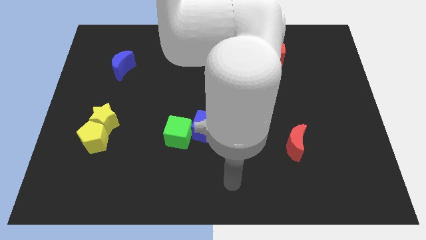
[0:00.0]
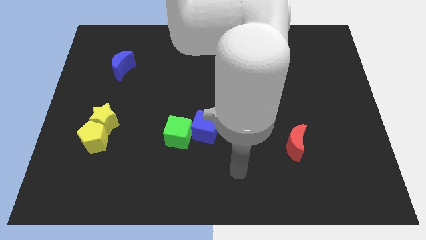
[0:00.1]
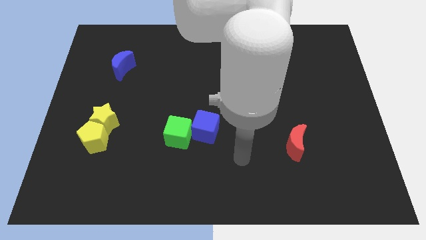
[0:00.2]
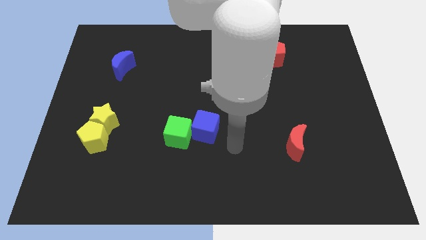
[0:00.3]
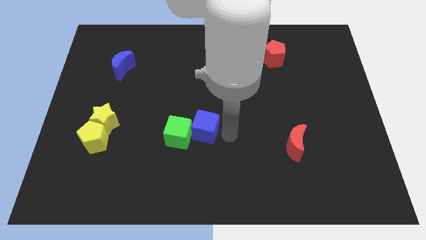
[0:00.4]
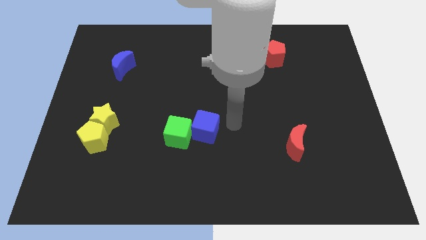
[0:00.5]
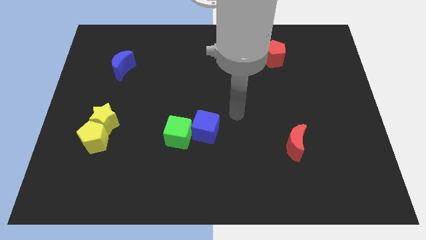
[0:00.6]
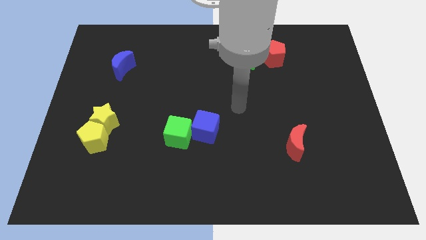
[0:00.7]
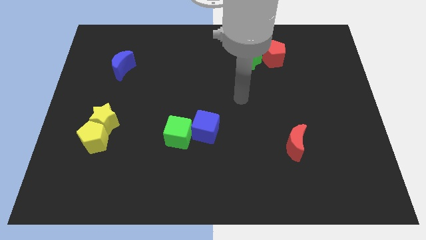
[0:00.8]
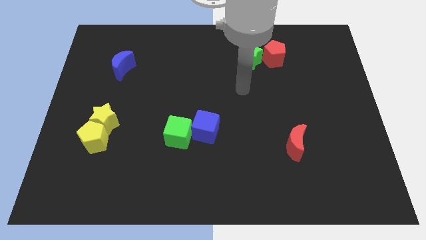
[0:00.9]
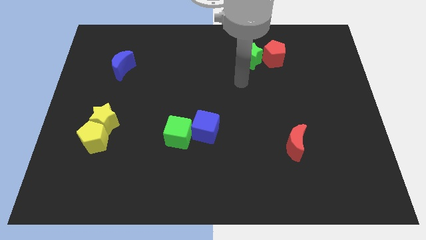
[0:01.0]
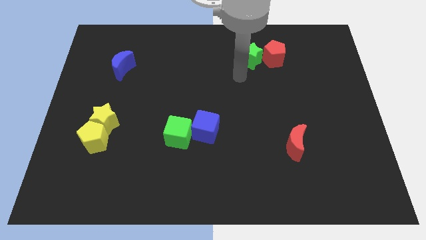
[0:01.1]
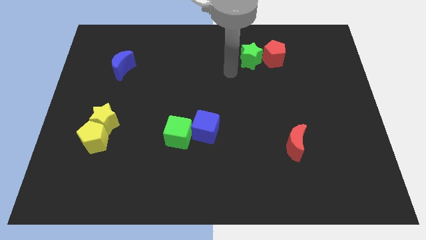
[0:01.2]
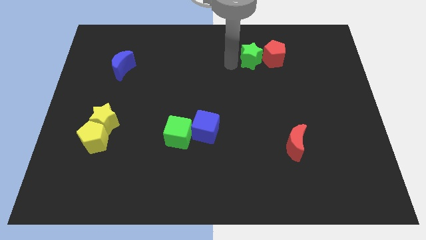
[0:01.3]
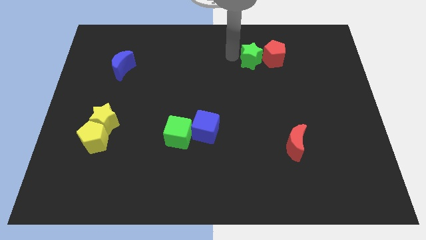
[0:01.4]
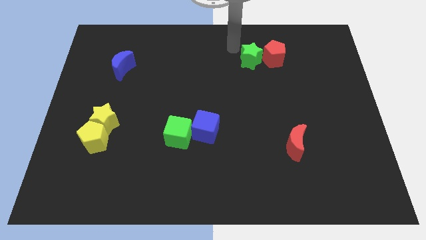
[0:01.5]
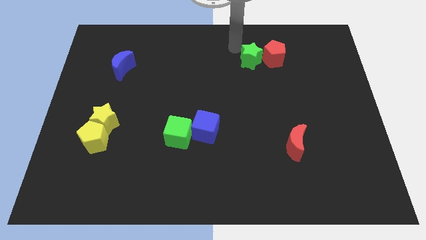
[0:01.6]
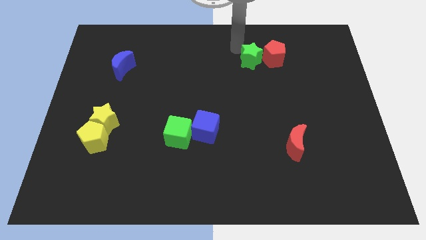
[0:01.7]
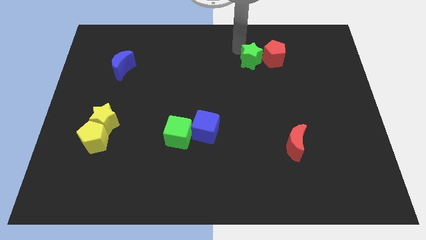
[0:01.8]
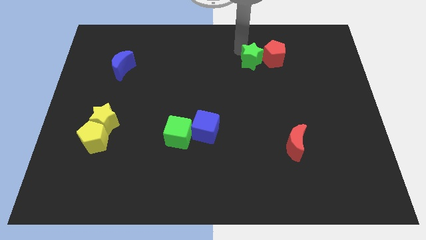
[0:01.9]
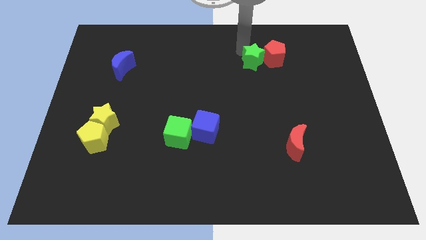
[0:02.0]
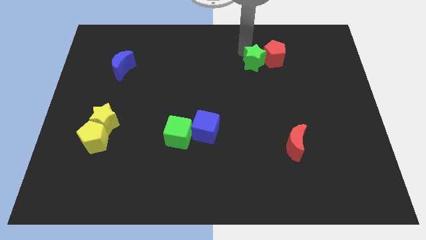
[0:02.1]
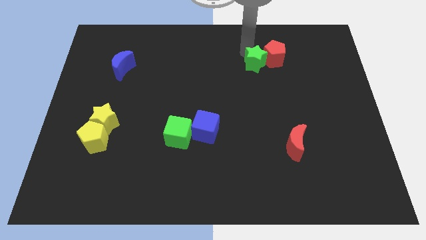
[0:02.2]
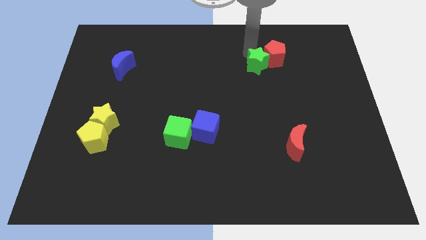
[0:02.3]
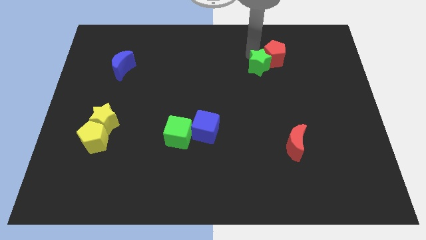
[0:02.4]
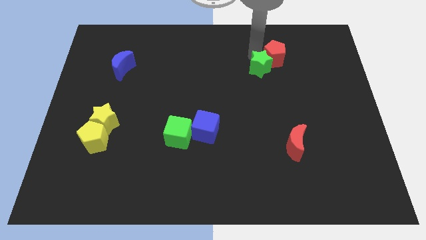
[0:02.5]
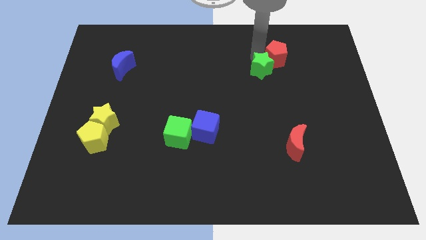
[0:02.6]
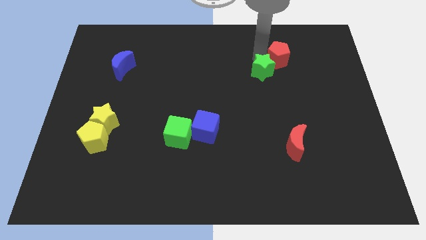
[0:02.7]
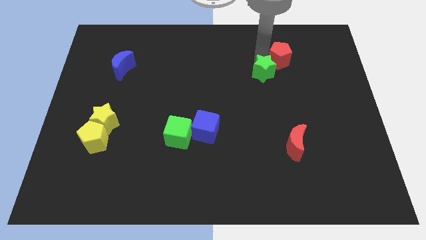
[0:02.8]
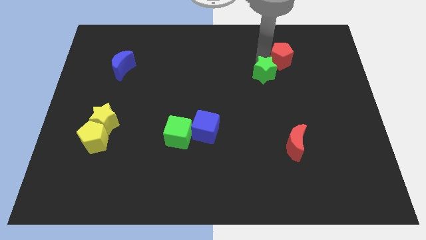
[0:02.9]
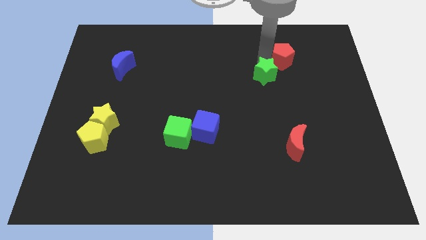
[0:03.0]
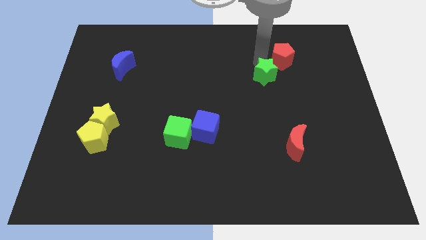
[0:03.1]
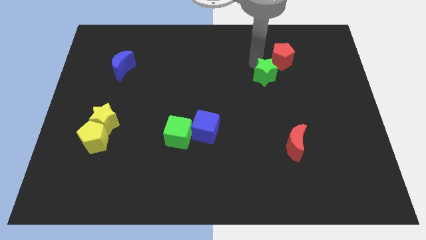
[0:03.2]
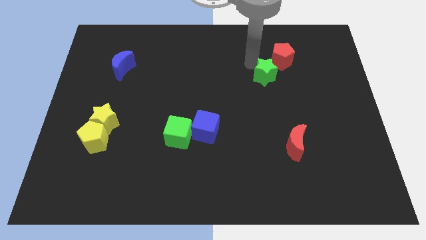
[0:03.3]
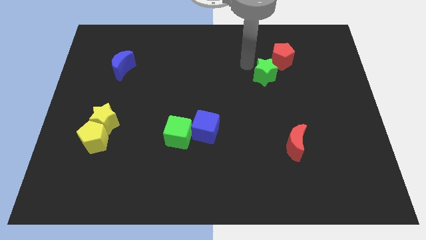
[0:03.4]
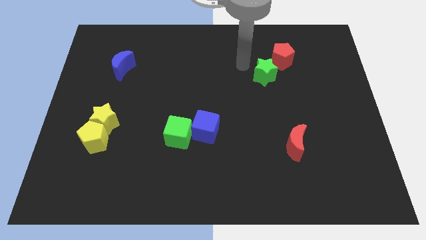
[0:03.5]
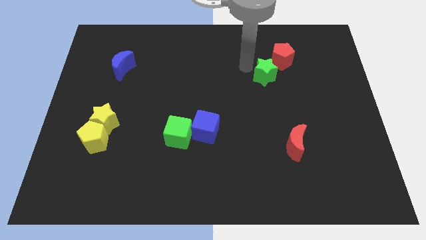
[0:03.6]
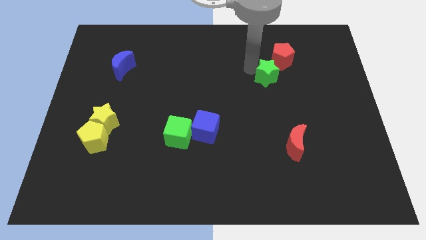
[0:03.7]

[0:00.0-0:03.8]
push the green star down and to the right a bit

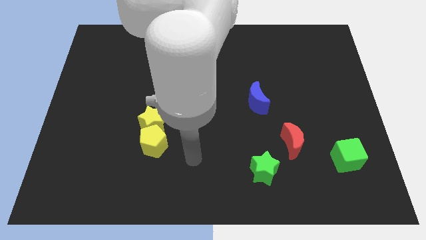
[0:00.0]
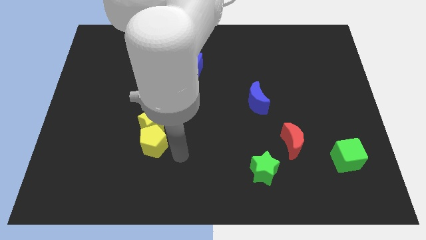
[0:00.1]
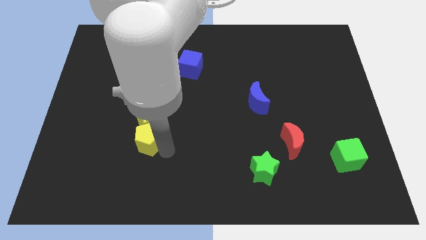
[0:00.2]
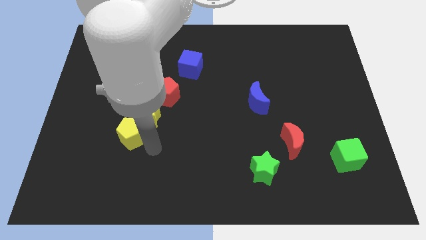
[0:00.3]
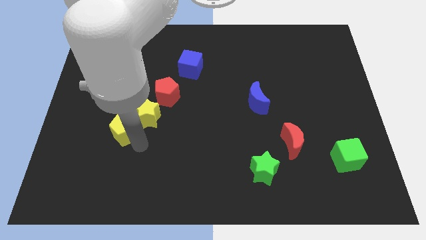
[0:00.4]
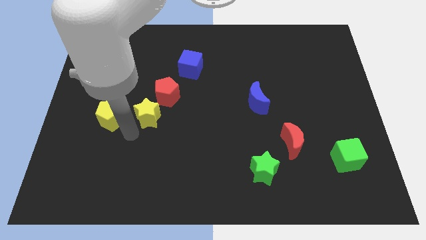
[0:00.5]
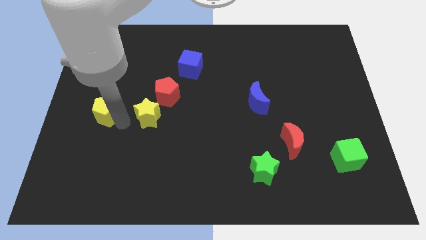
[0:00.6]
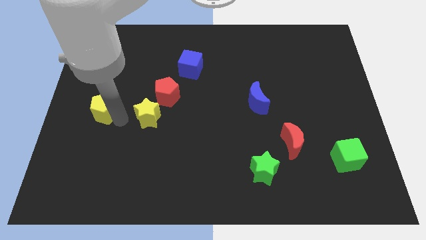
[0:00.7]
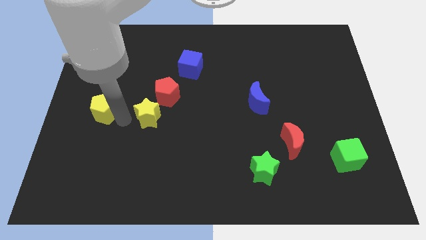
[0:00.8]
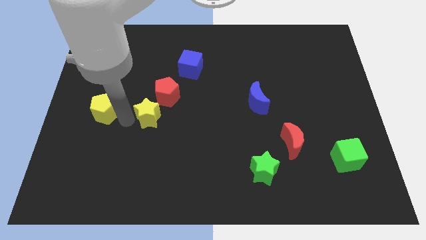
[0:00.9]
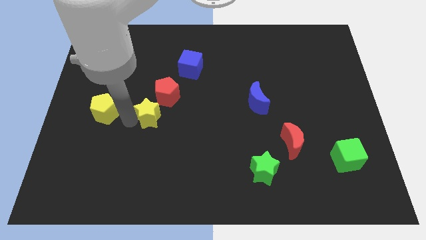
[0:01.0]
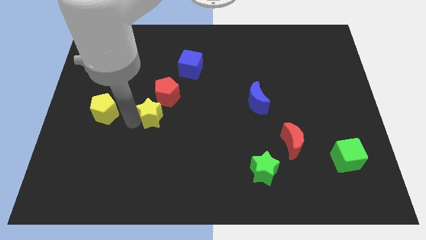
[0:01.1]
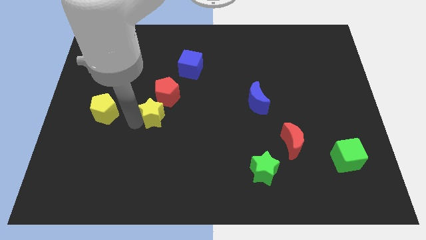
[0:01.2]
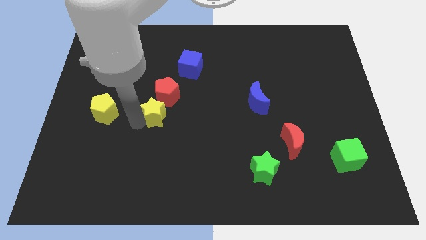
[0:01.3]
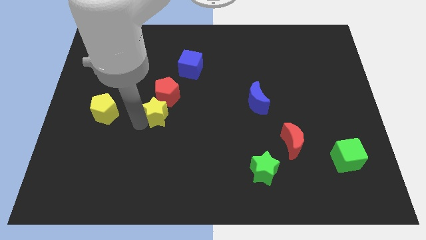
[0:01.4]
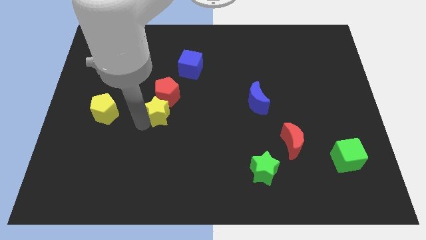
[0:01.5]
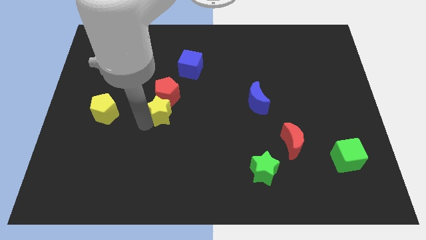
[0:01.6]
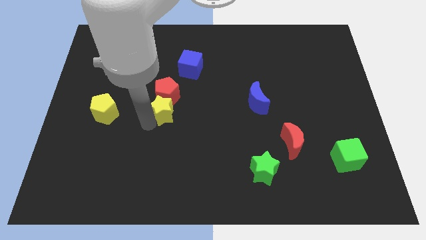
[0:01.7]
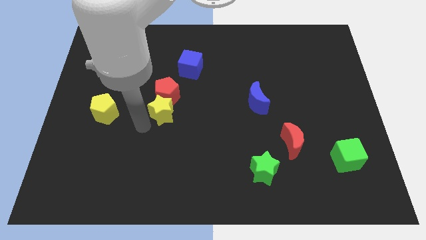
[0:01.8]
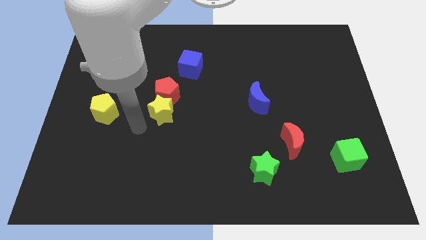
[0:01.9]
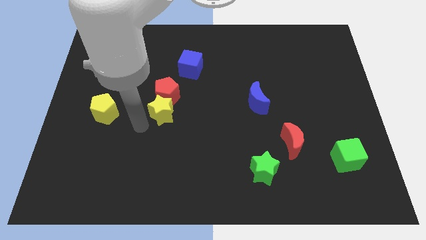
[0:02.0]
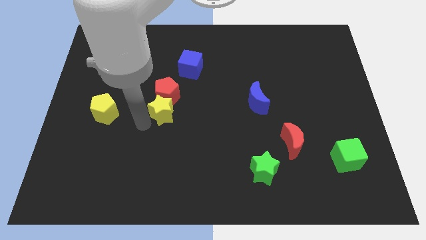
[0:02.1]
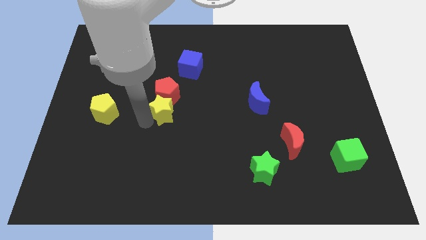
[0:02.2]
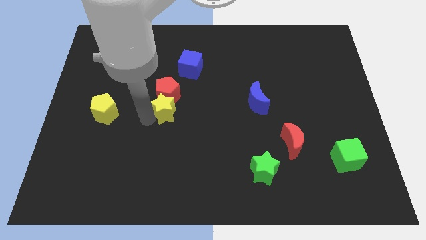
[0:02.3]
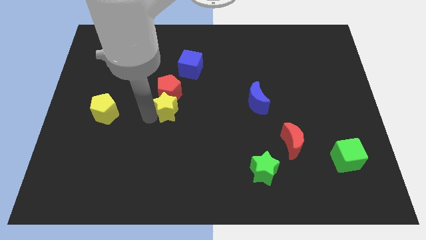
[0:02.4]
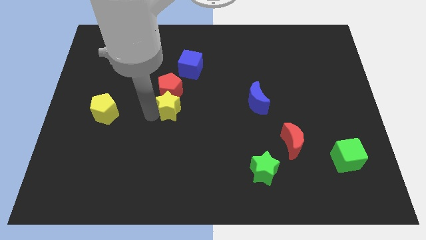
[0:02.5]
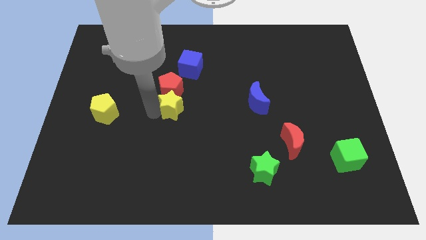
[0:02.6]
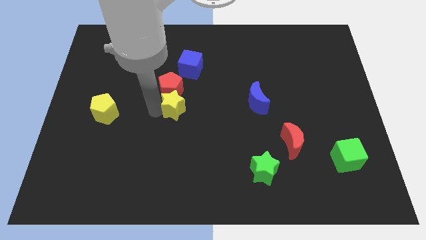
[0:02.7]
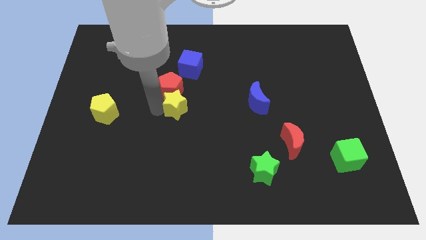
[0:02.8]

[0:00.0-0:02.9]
slightly move the yellow star upwards and to the right

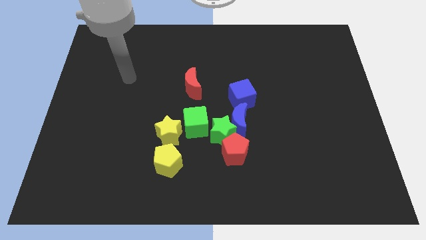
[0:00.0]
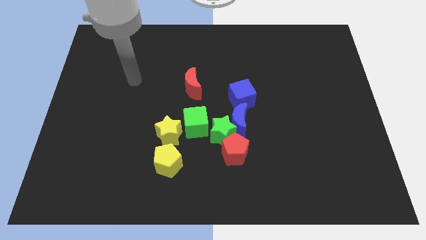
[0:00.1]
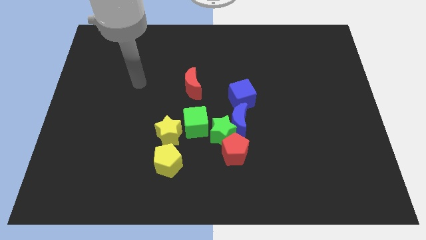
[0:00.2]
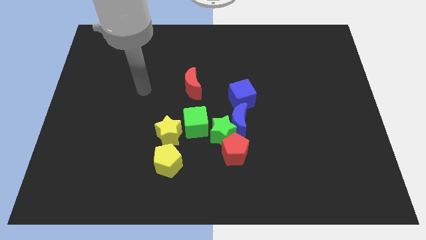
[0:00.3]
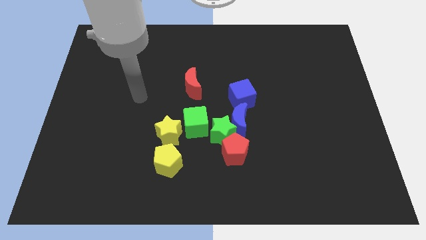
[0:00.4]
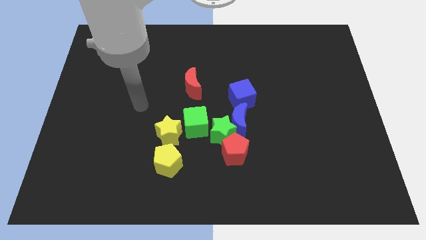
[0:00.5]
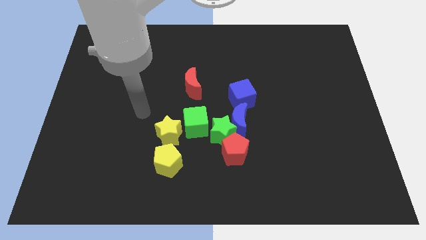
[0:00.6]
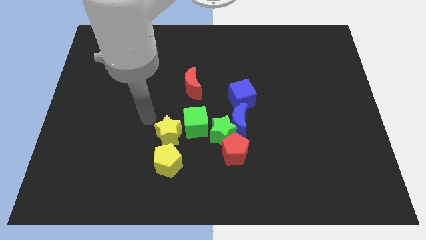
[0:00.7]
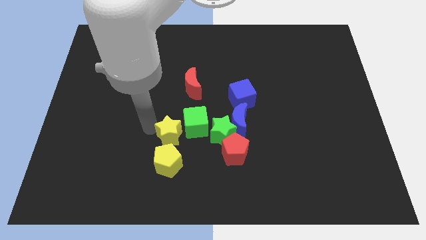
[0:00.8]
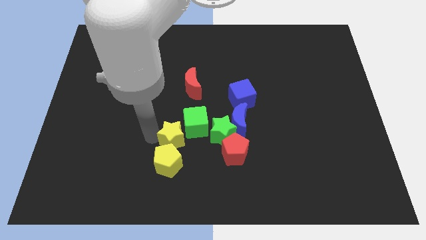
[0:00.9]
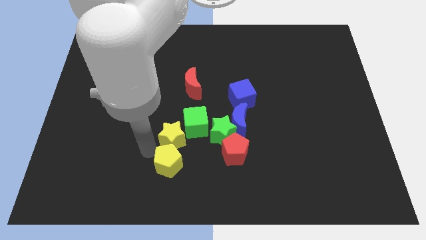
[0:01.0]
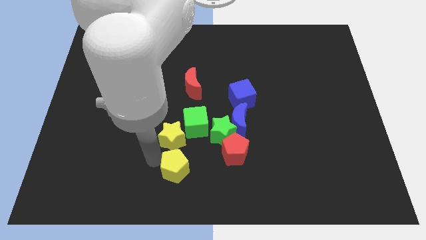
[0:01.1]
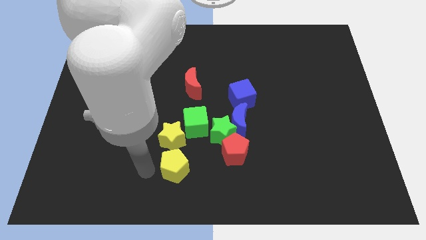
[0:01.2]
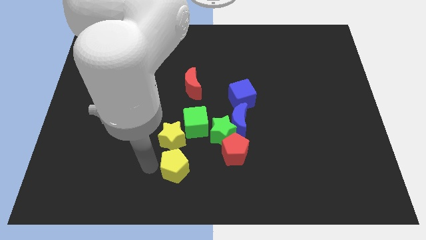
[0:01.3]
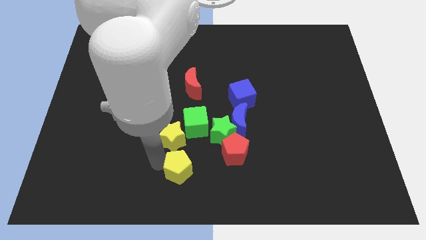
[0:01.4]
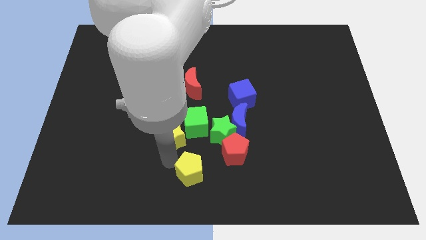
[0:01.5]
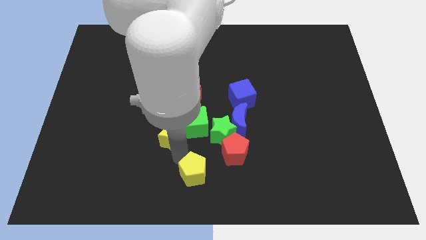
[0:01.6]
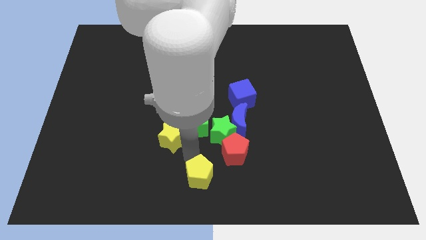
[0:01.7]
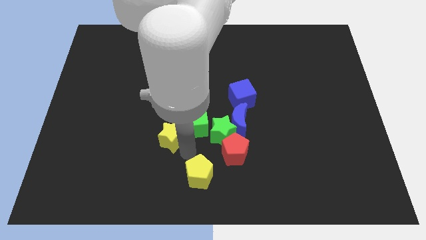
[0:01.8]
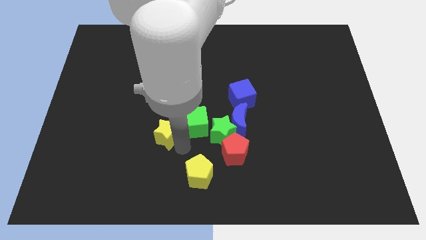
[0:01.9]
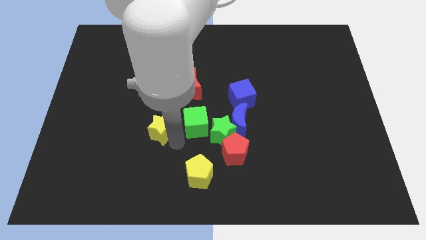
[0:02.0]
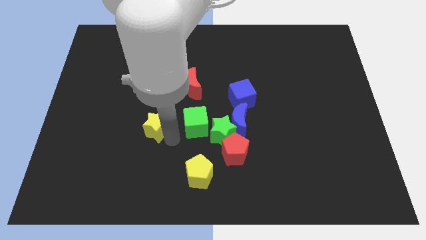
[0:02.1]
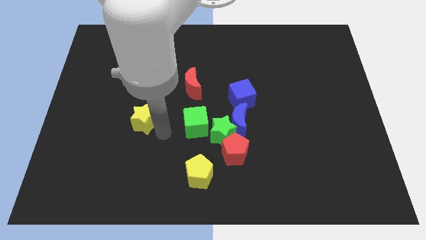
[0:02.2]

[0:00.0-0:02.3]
slide the yellow star slightly diagonally upwards and to the left
